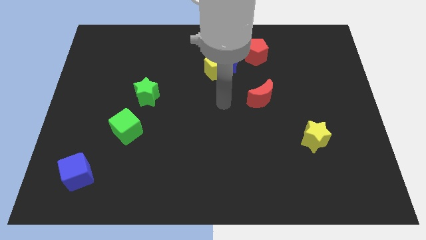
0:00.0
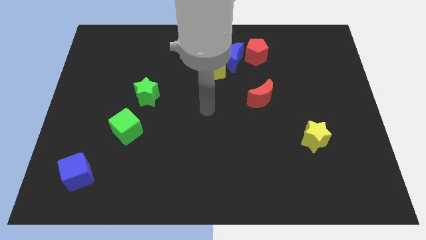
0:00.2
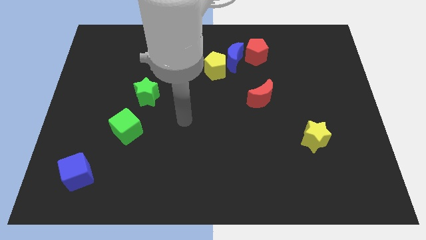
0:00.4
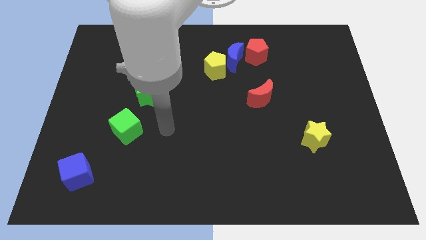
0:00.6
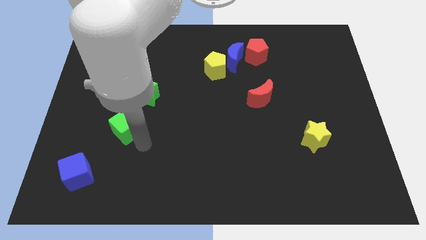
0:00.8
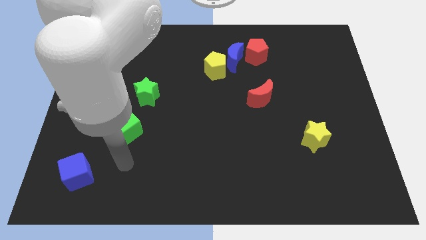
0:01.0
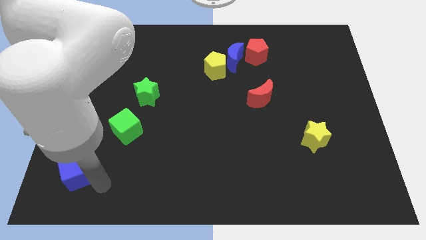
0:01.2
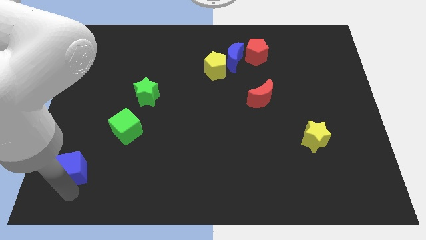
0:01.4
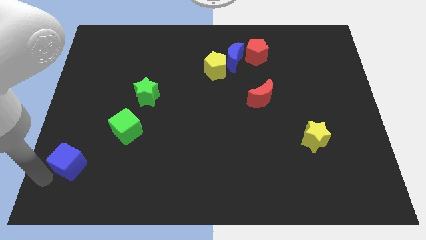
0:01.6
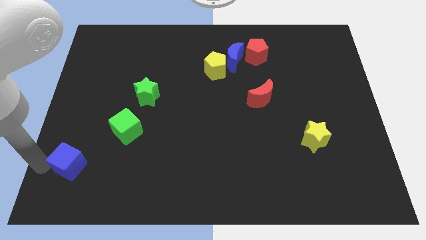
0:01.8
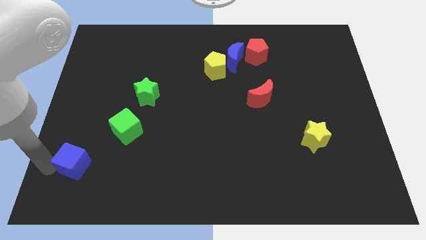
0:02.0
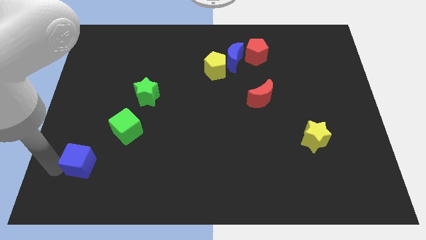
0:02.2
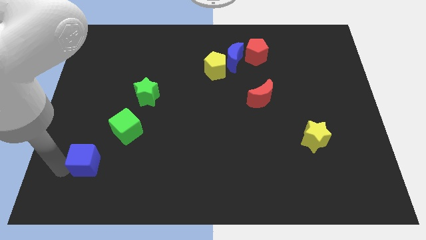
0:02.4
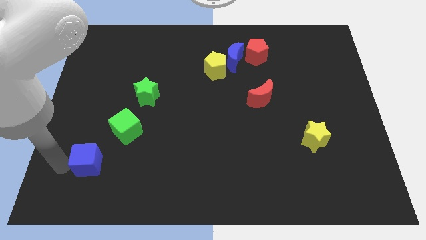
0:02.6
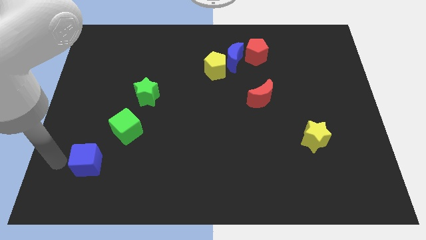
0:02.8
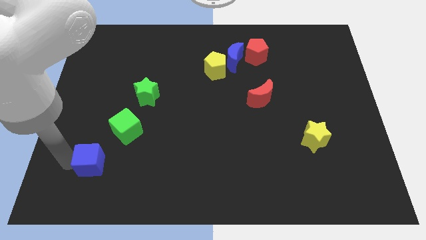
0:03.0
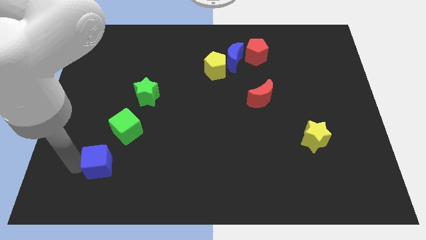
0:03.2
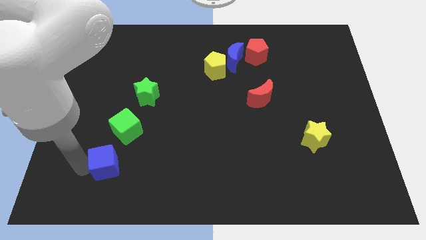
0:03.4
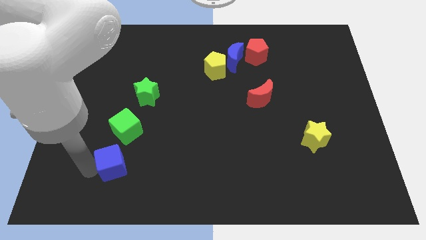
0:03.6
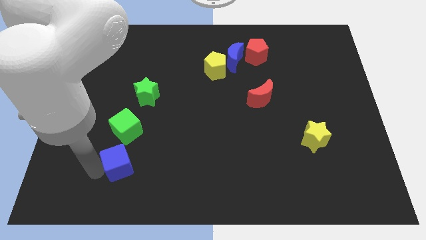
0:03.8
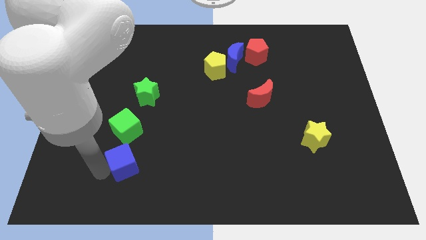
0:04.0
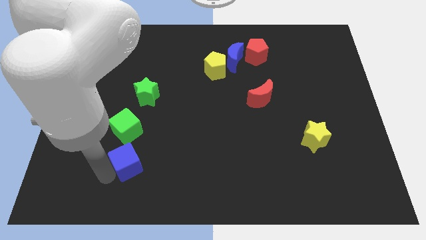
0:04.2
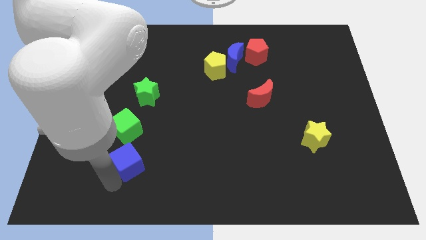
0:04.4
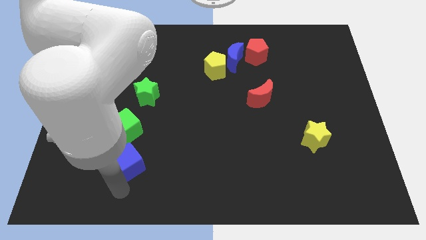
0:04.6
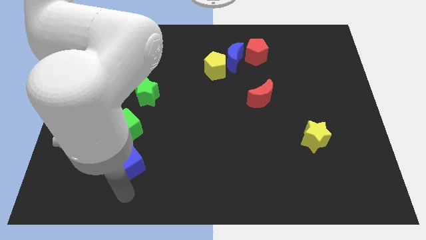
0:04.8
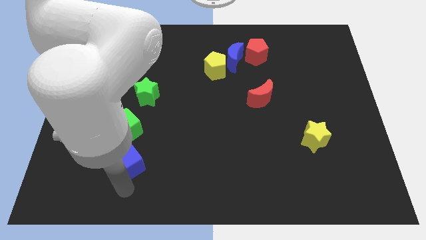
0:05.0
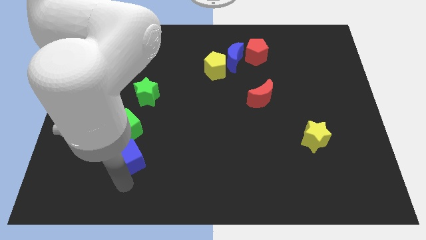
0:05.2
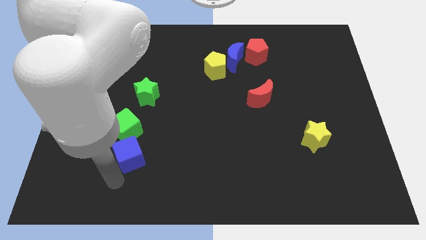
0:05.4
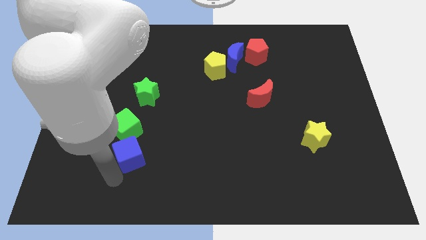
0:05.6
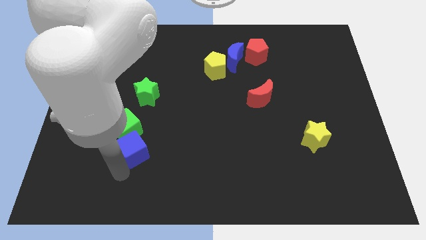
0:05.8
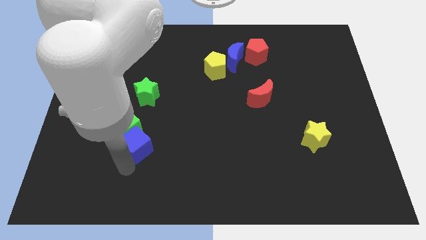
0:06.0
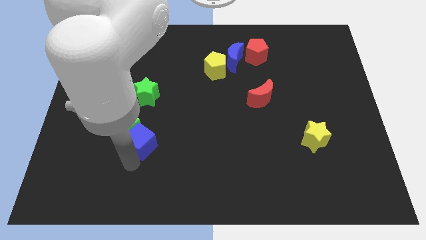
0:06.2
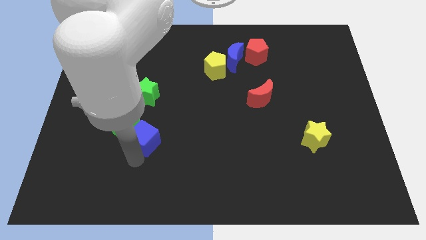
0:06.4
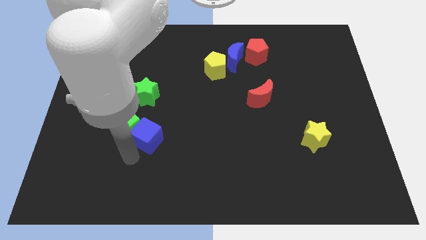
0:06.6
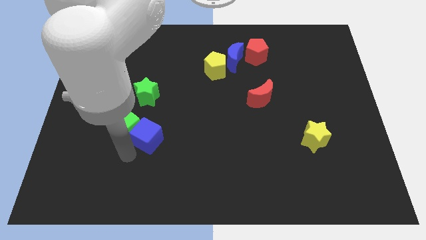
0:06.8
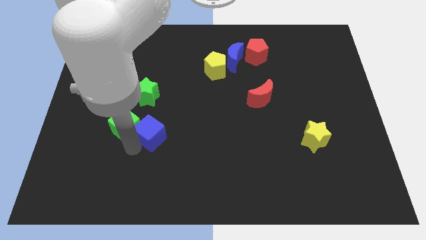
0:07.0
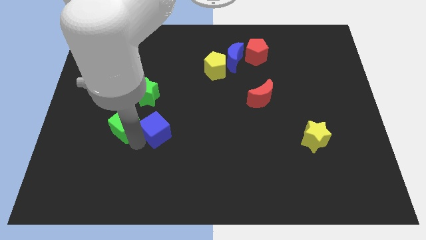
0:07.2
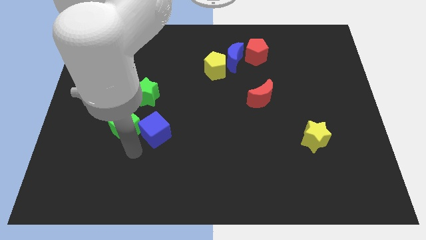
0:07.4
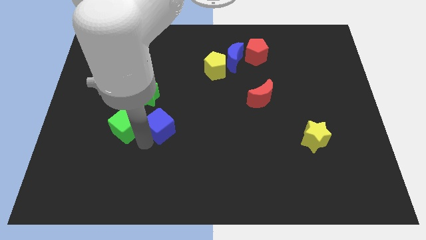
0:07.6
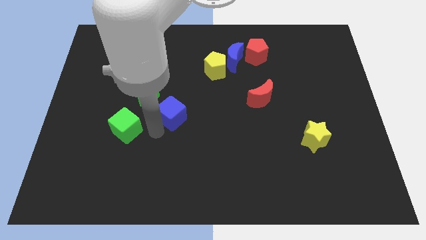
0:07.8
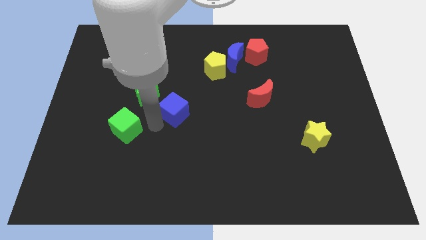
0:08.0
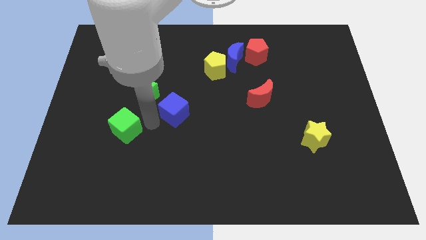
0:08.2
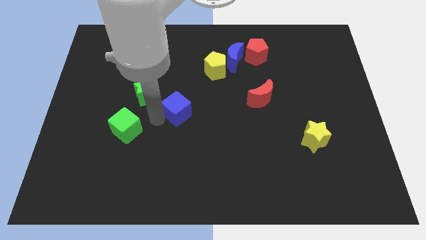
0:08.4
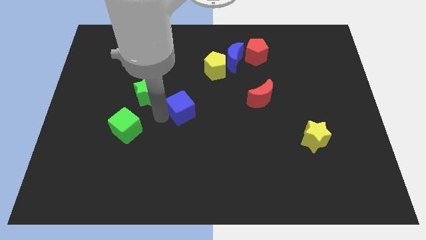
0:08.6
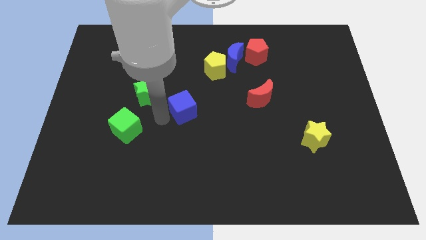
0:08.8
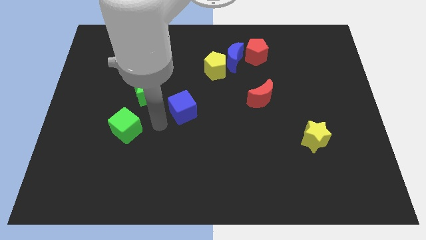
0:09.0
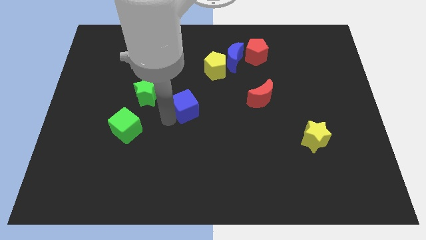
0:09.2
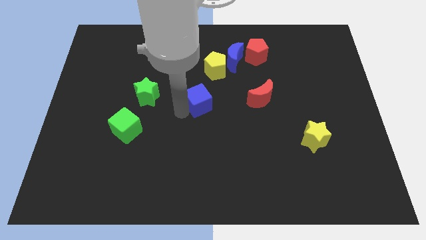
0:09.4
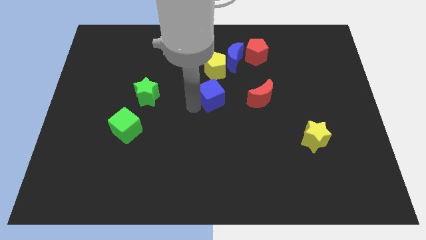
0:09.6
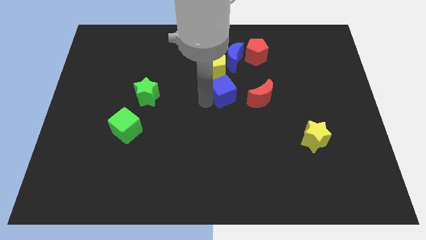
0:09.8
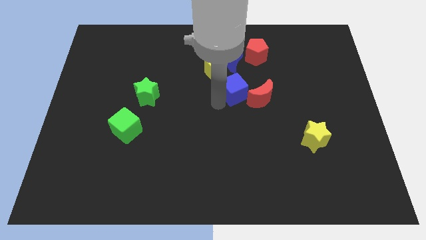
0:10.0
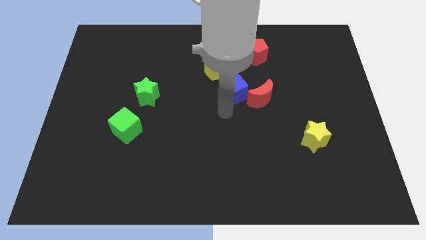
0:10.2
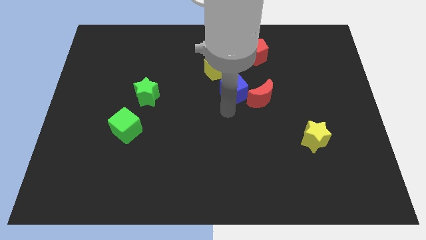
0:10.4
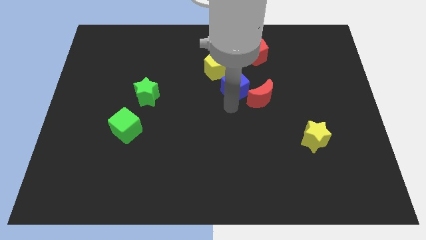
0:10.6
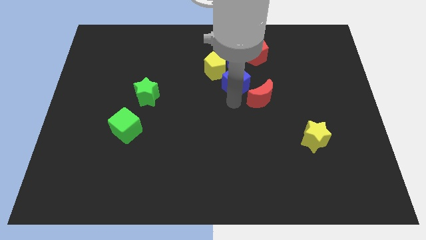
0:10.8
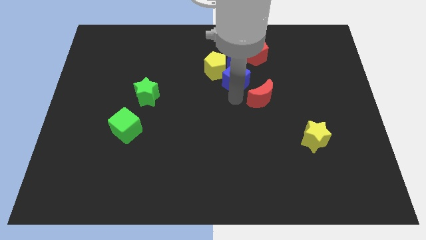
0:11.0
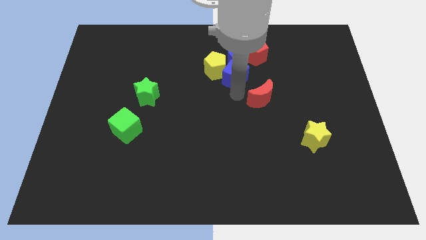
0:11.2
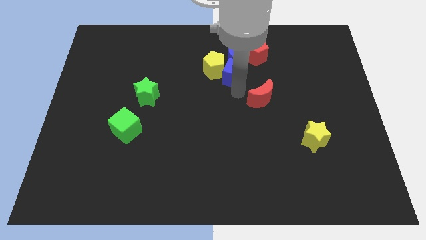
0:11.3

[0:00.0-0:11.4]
push the blue cube next to the blue moon

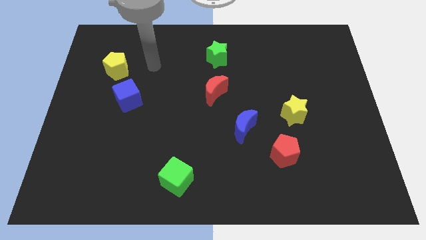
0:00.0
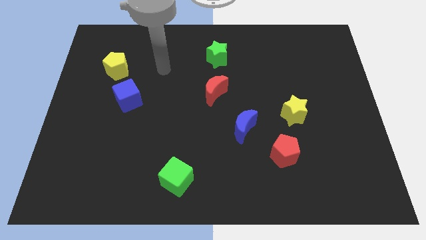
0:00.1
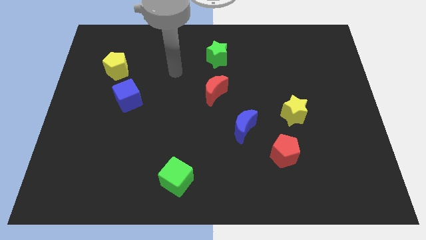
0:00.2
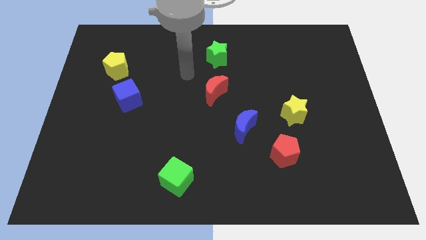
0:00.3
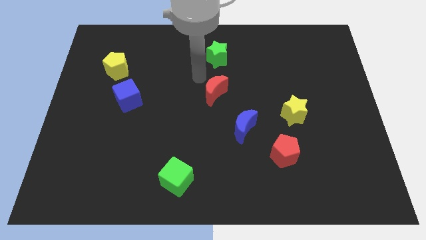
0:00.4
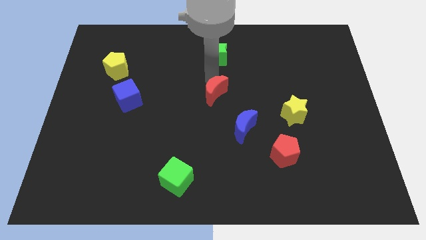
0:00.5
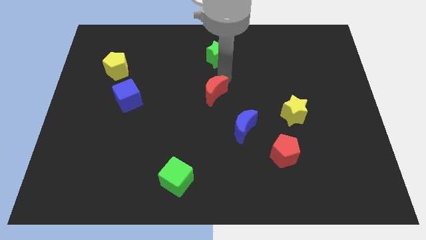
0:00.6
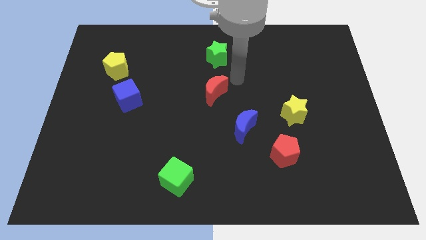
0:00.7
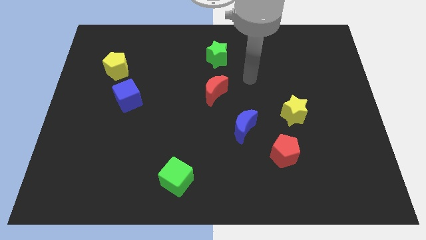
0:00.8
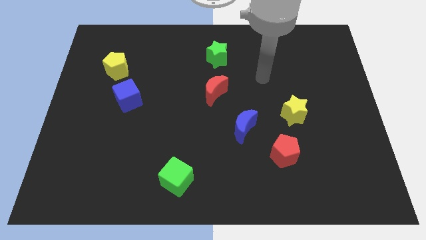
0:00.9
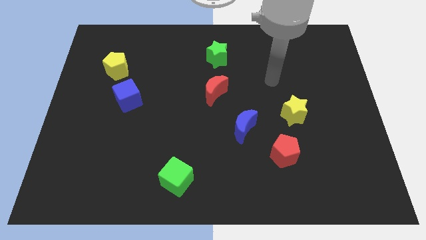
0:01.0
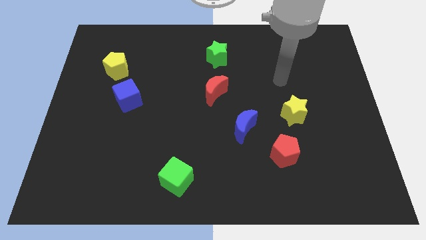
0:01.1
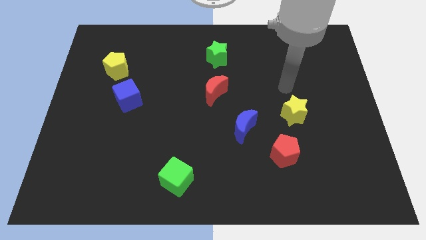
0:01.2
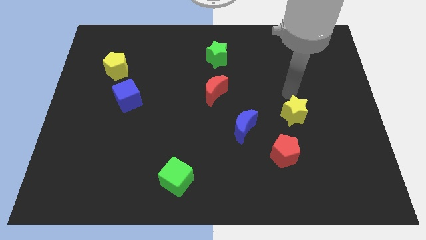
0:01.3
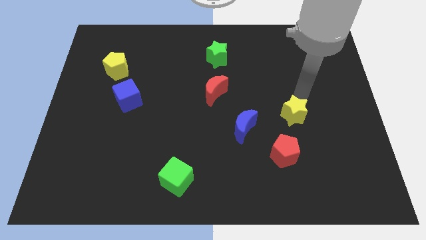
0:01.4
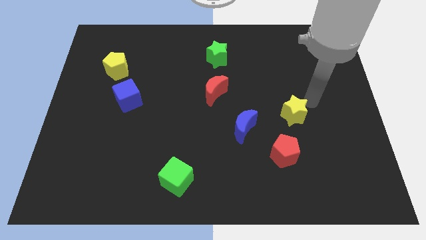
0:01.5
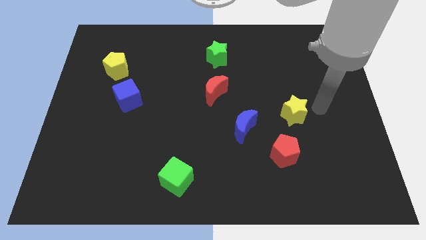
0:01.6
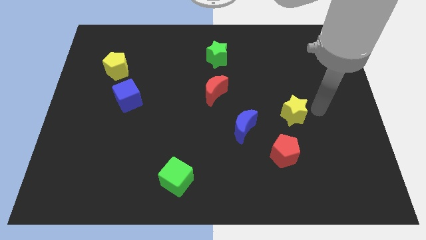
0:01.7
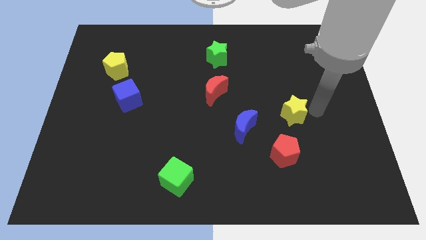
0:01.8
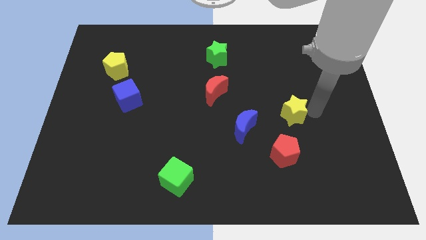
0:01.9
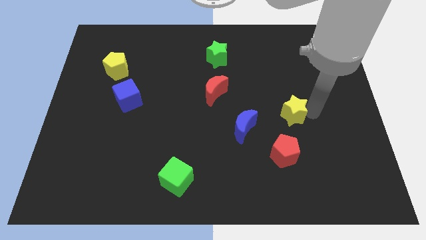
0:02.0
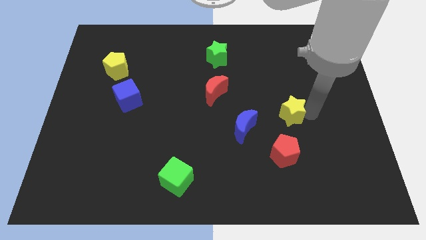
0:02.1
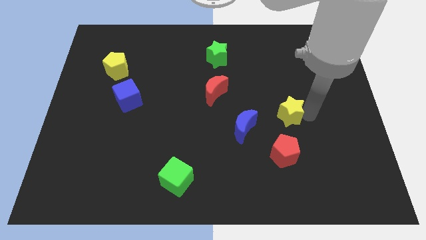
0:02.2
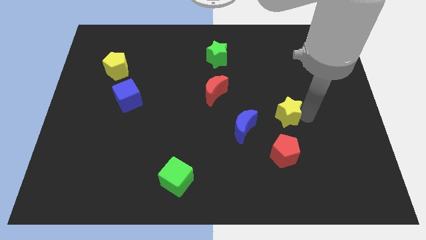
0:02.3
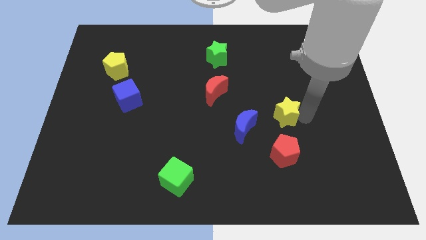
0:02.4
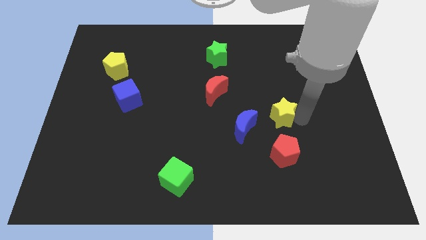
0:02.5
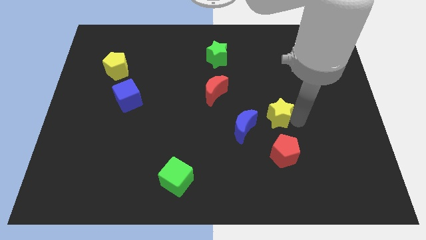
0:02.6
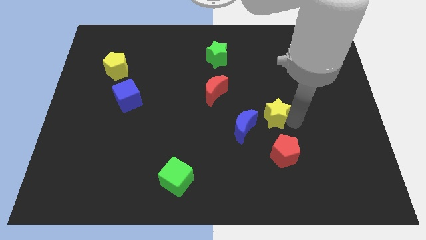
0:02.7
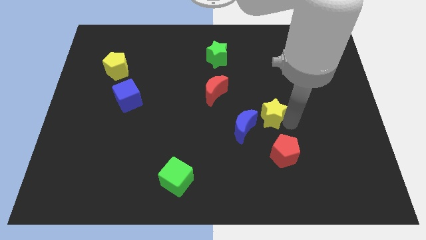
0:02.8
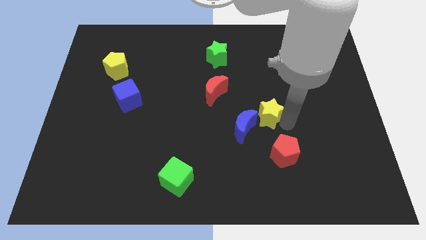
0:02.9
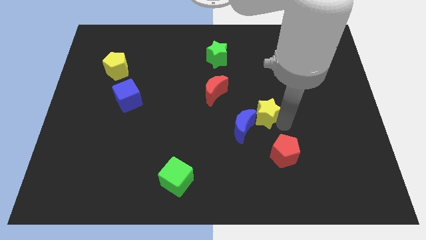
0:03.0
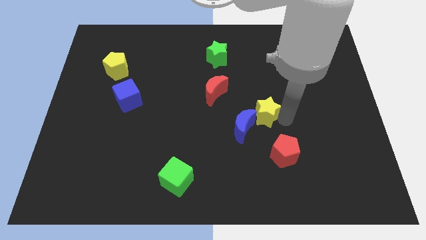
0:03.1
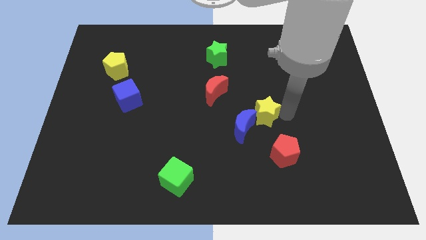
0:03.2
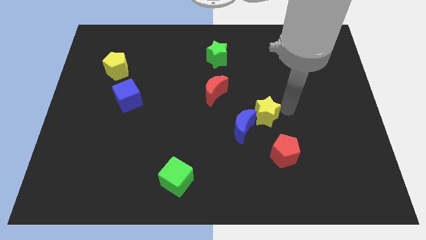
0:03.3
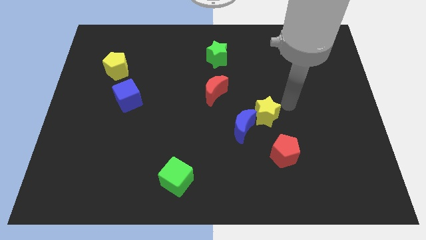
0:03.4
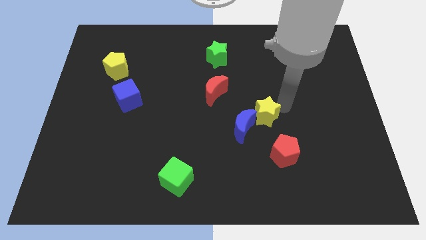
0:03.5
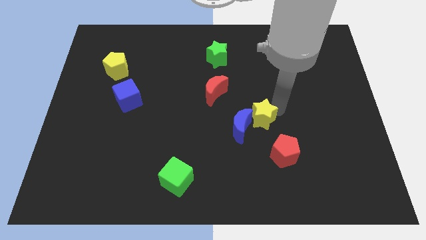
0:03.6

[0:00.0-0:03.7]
put the yellow star next to the blue moon
